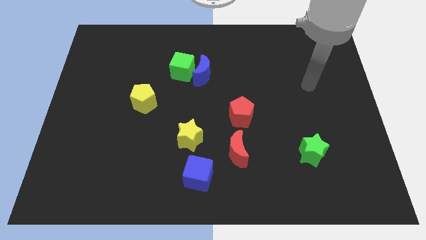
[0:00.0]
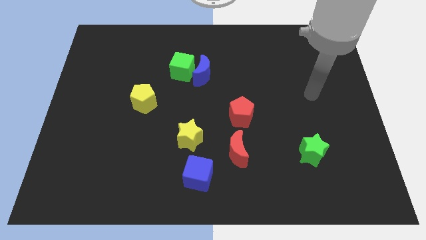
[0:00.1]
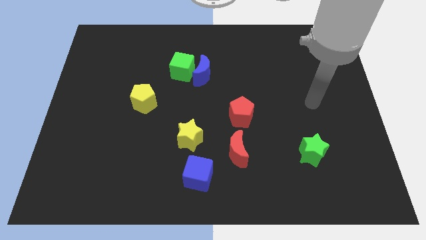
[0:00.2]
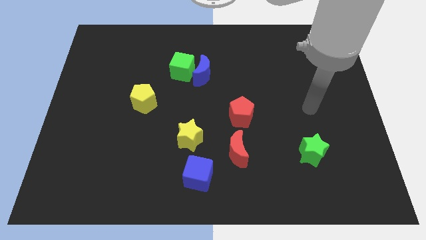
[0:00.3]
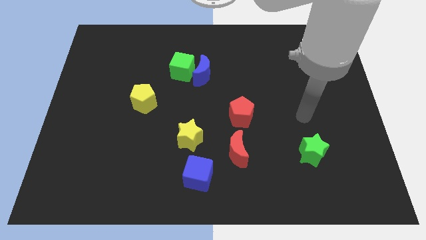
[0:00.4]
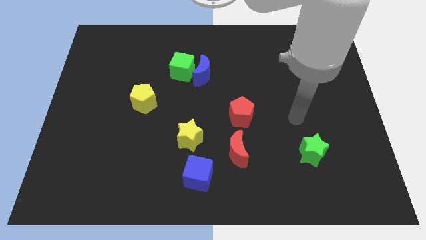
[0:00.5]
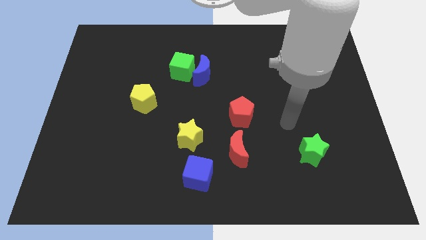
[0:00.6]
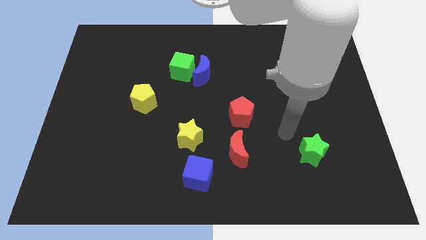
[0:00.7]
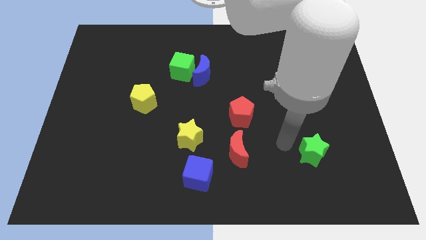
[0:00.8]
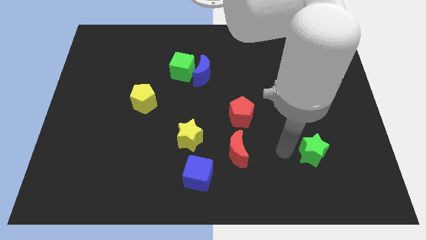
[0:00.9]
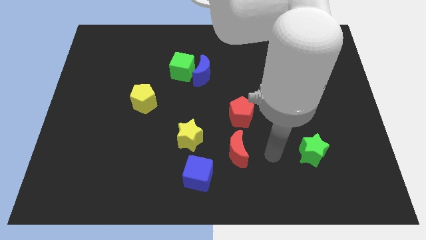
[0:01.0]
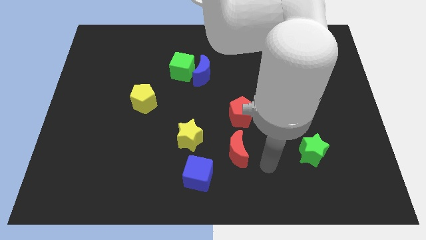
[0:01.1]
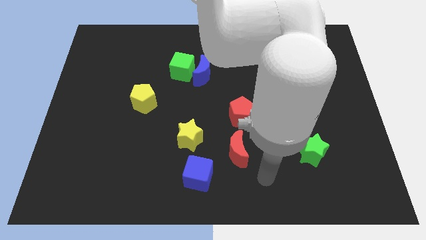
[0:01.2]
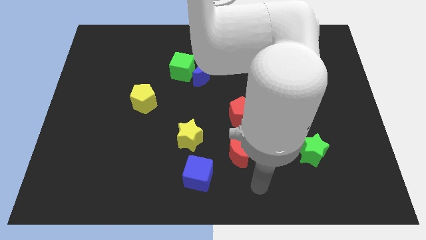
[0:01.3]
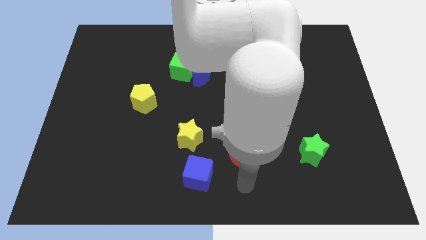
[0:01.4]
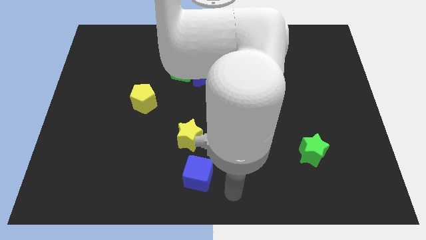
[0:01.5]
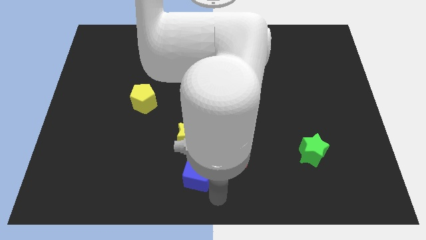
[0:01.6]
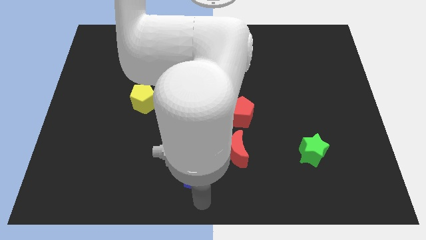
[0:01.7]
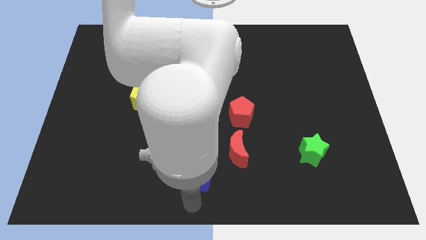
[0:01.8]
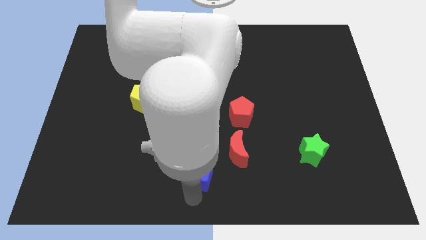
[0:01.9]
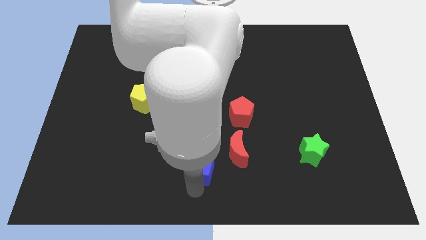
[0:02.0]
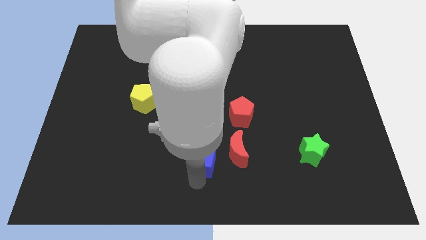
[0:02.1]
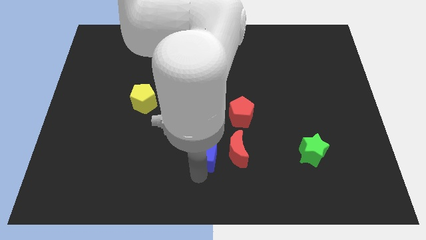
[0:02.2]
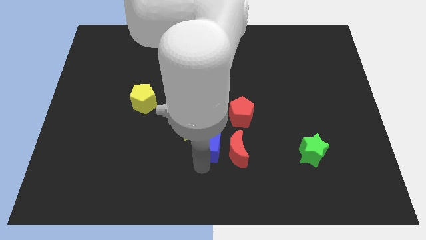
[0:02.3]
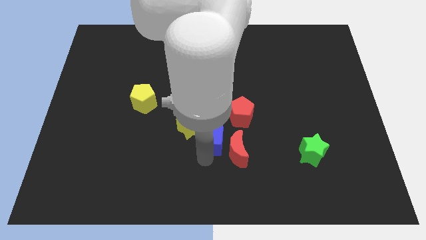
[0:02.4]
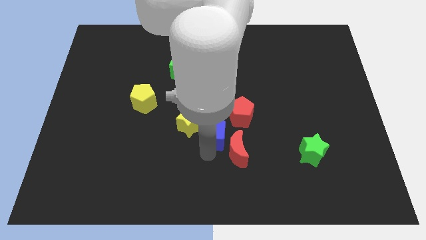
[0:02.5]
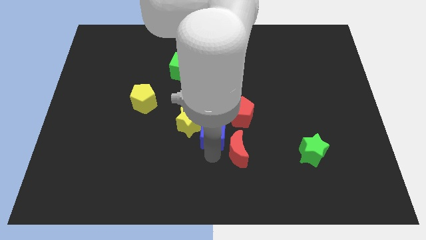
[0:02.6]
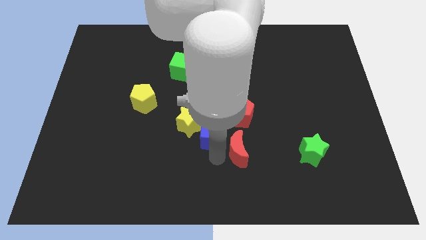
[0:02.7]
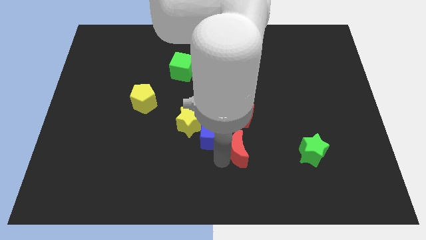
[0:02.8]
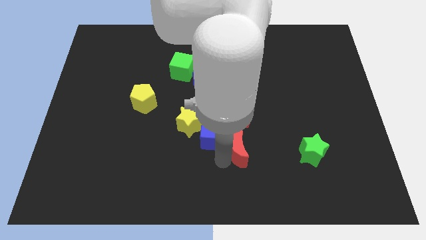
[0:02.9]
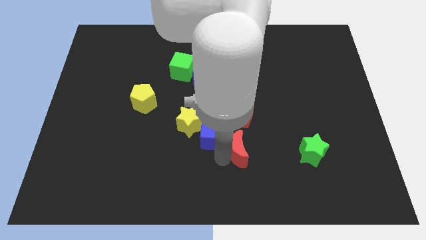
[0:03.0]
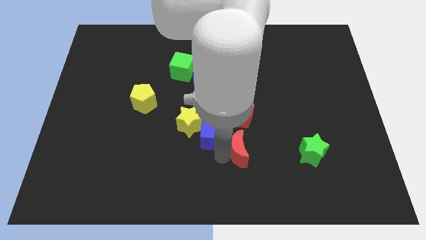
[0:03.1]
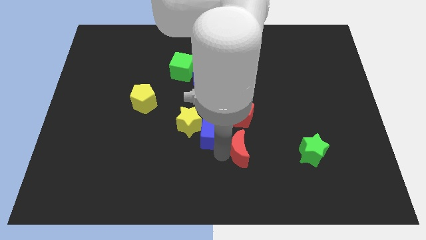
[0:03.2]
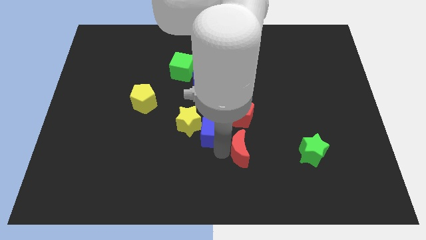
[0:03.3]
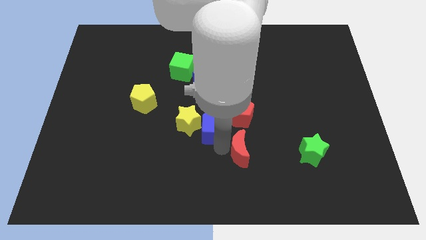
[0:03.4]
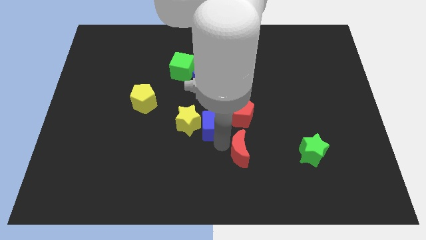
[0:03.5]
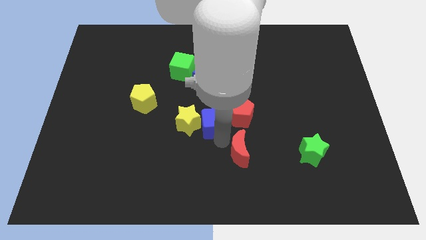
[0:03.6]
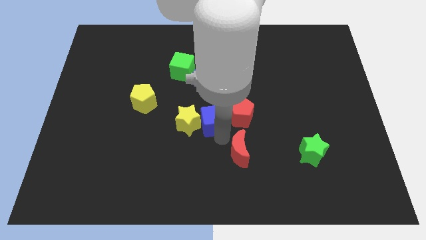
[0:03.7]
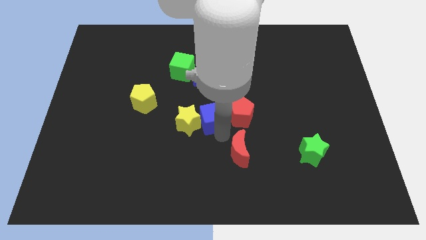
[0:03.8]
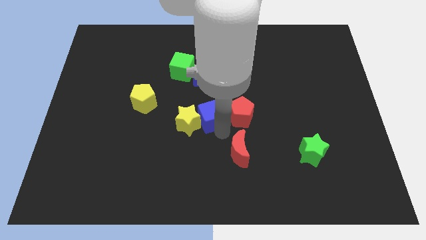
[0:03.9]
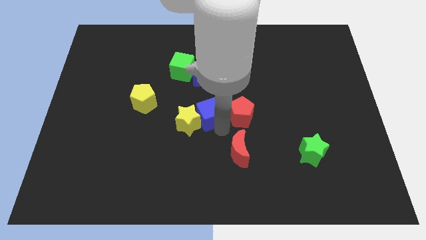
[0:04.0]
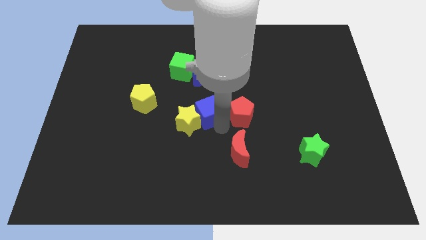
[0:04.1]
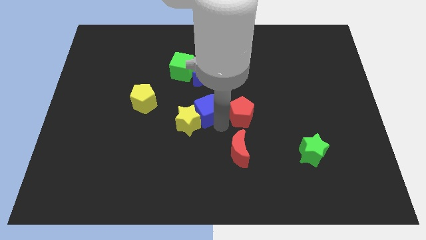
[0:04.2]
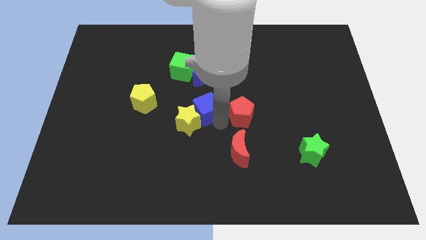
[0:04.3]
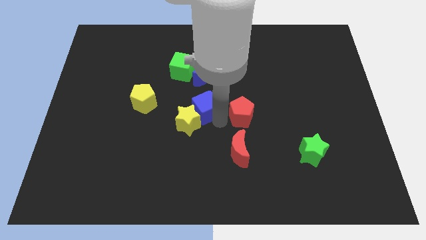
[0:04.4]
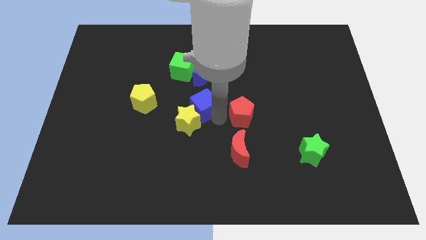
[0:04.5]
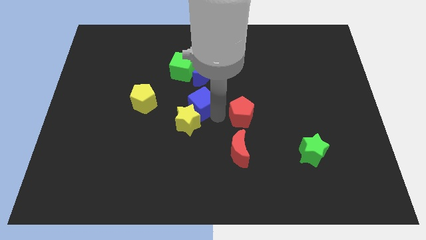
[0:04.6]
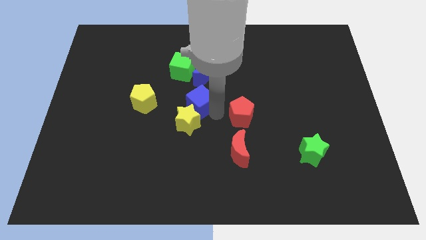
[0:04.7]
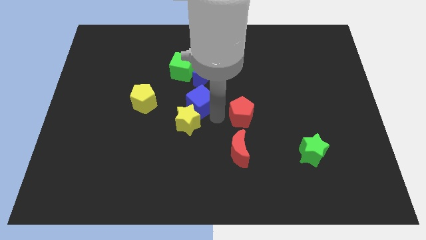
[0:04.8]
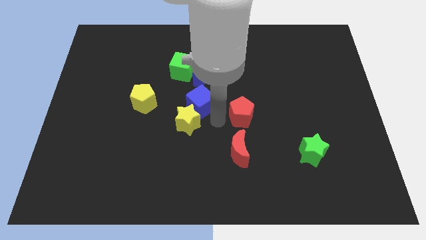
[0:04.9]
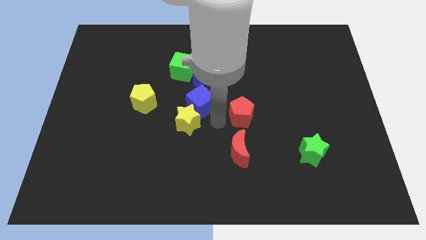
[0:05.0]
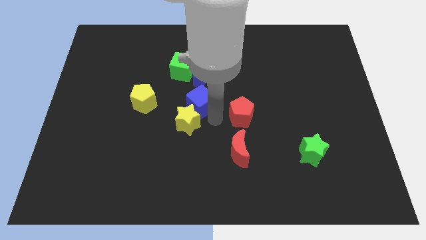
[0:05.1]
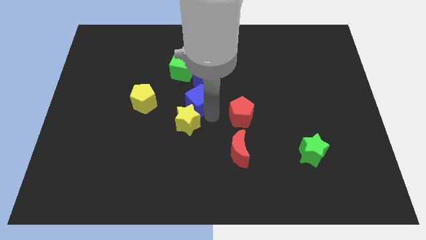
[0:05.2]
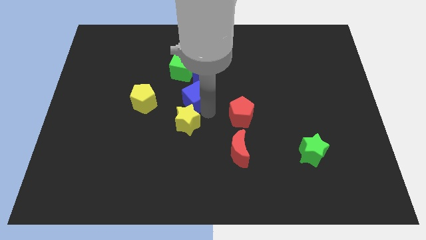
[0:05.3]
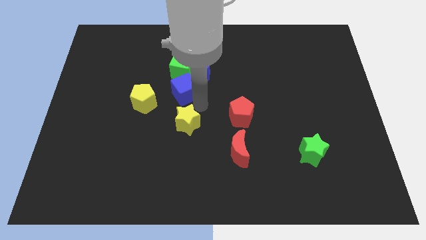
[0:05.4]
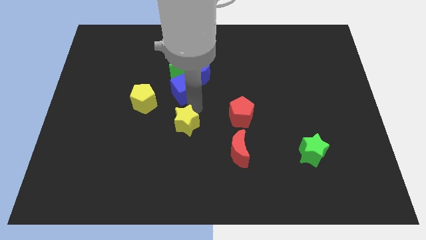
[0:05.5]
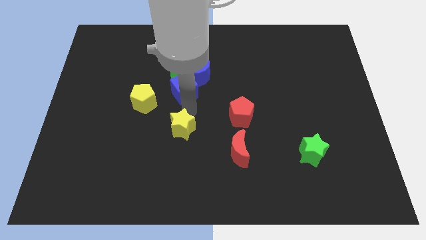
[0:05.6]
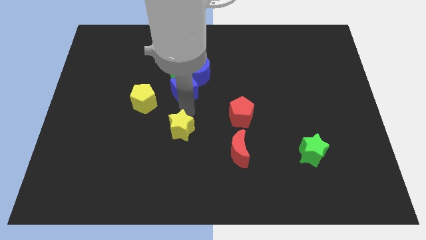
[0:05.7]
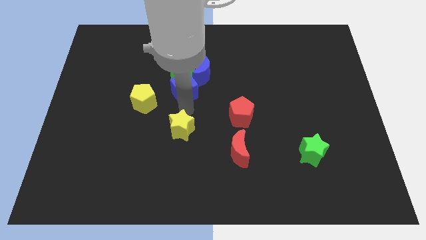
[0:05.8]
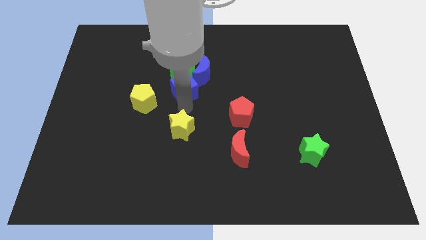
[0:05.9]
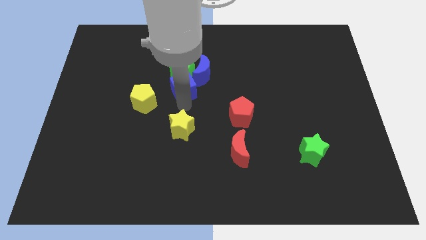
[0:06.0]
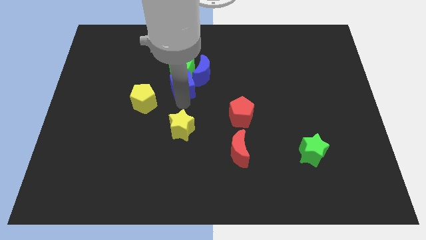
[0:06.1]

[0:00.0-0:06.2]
move the blue cube towards the green cube

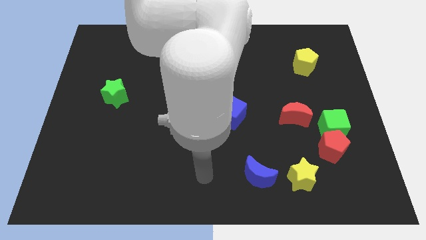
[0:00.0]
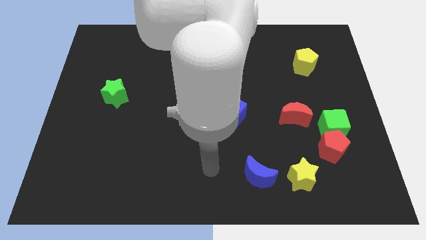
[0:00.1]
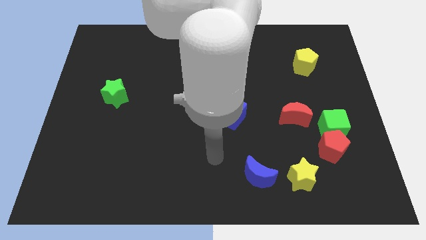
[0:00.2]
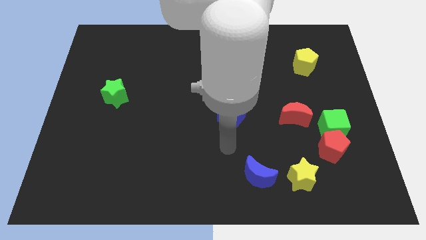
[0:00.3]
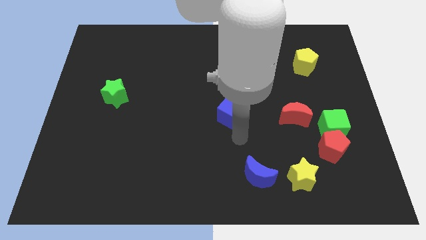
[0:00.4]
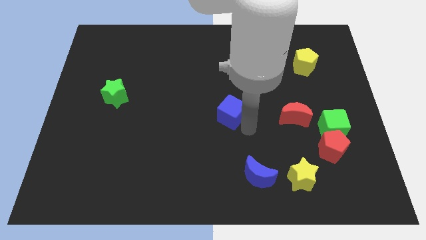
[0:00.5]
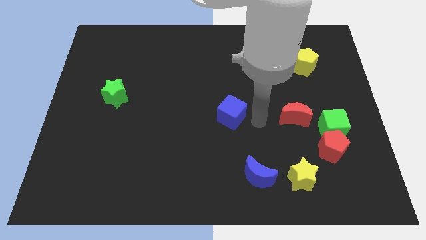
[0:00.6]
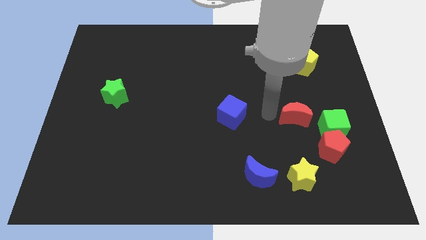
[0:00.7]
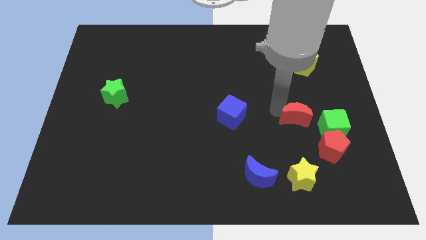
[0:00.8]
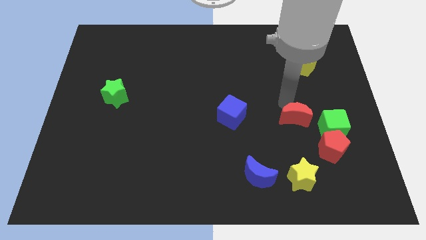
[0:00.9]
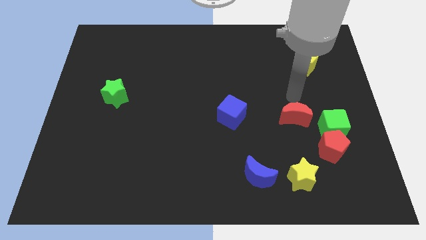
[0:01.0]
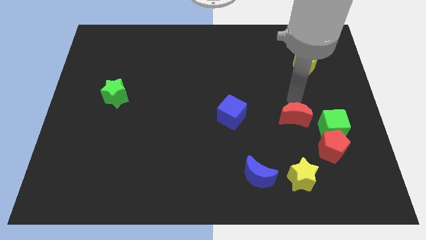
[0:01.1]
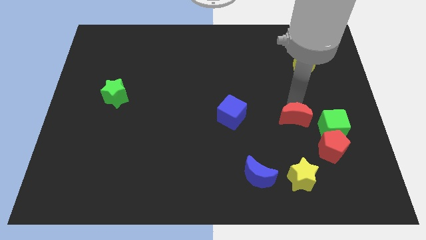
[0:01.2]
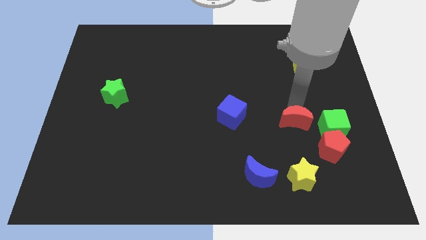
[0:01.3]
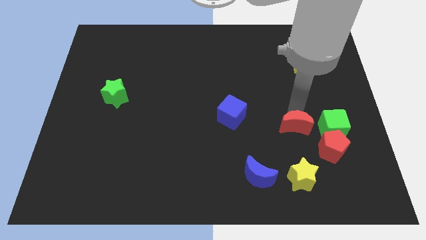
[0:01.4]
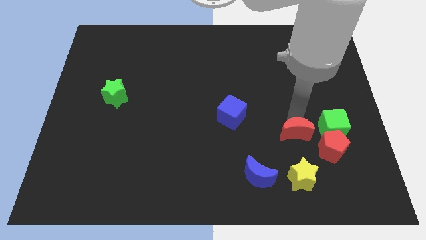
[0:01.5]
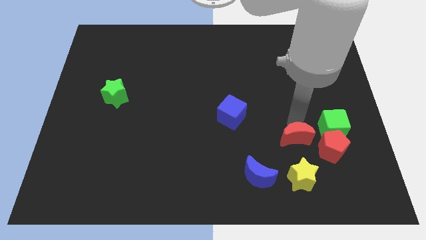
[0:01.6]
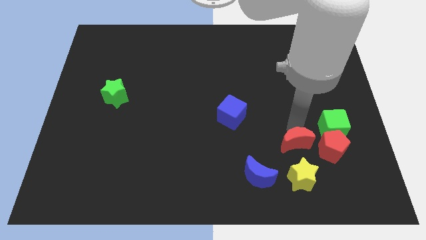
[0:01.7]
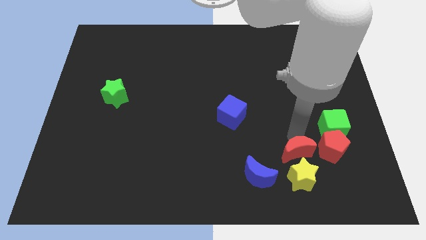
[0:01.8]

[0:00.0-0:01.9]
push the red moon close to the yellow star
